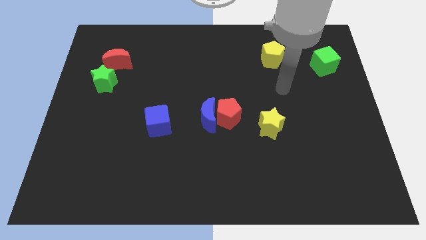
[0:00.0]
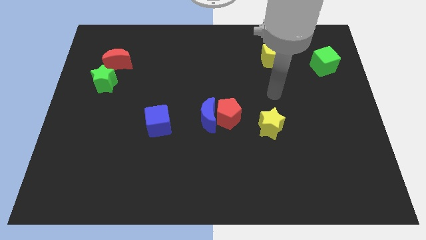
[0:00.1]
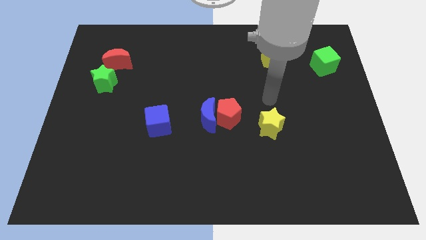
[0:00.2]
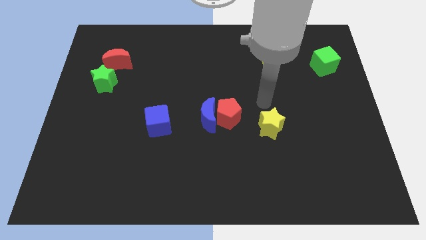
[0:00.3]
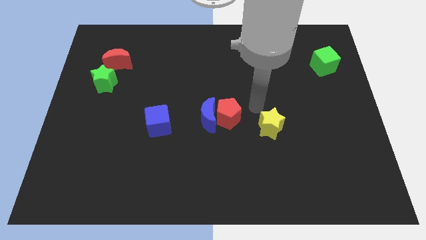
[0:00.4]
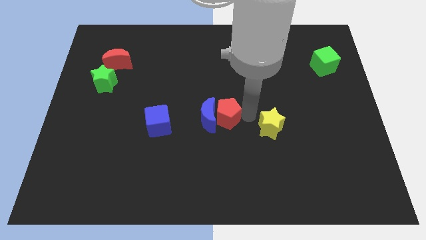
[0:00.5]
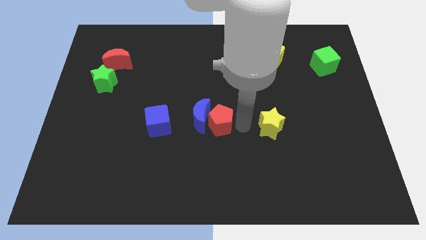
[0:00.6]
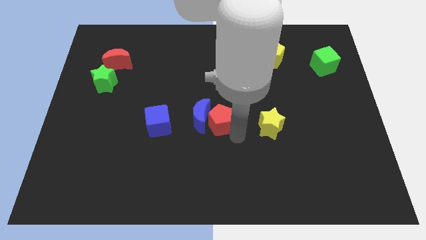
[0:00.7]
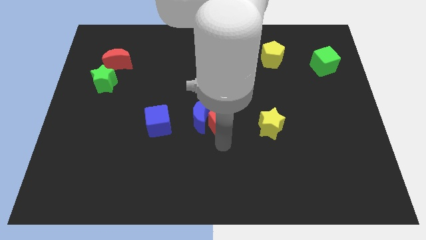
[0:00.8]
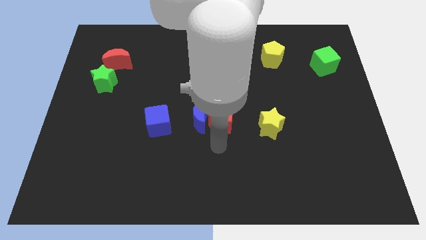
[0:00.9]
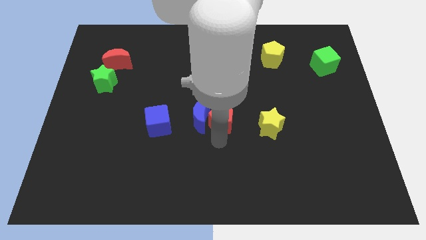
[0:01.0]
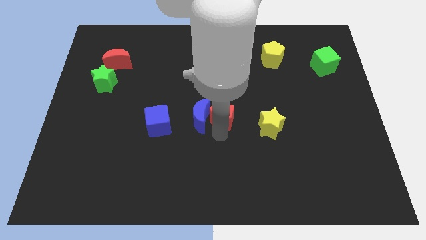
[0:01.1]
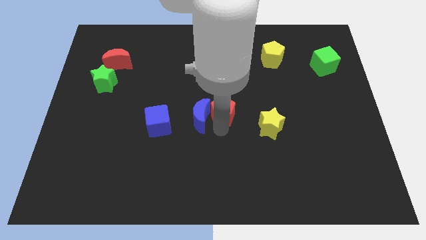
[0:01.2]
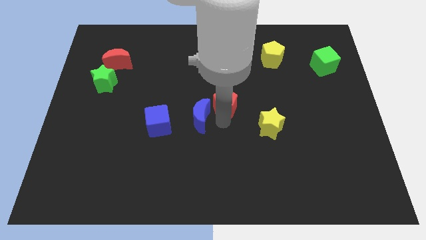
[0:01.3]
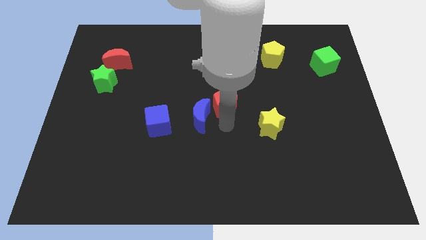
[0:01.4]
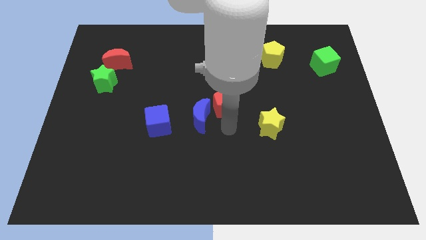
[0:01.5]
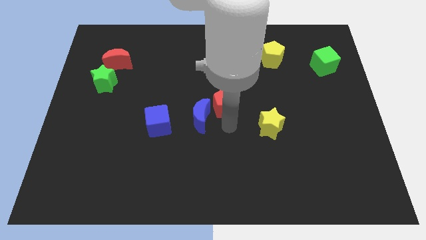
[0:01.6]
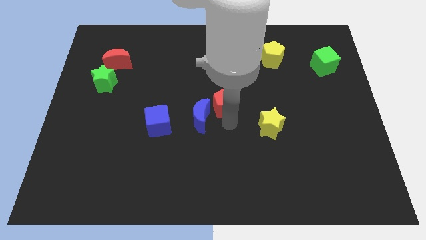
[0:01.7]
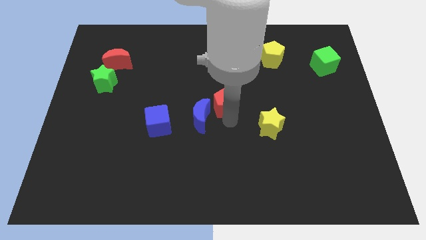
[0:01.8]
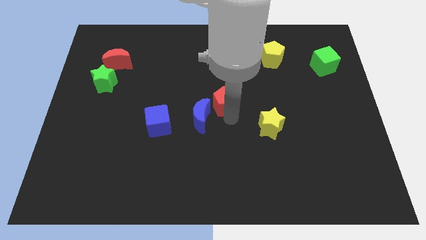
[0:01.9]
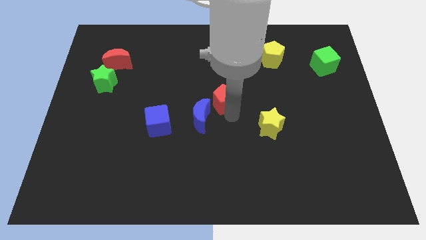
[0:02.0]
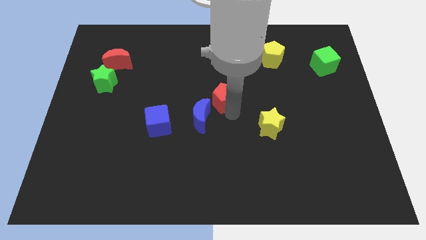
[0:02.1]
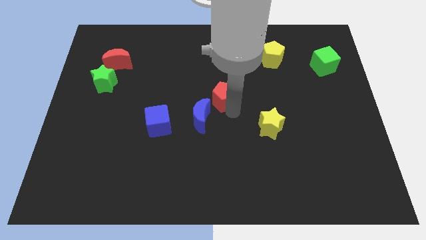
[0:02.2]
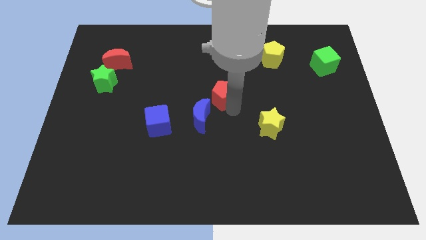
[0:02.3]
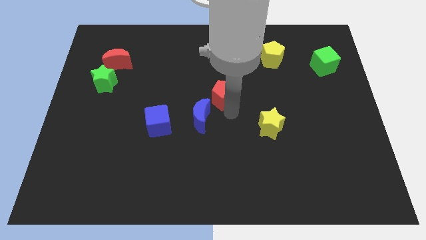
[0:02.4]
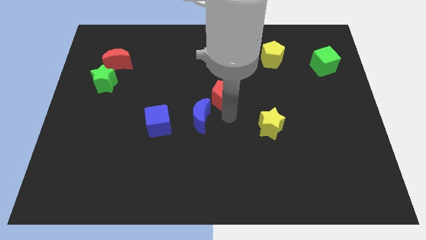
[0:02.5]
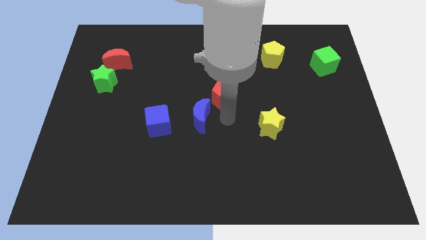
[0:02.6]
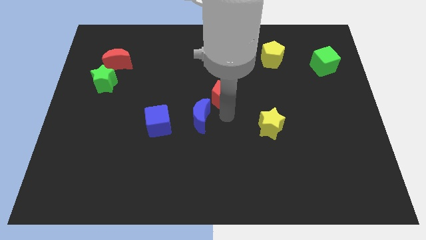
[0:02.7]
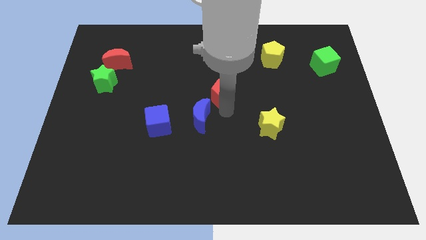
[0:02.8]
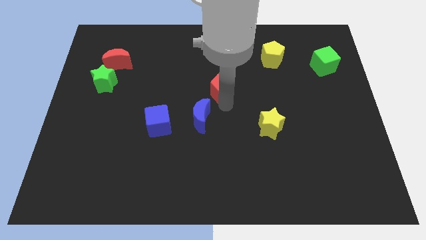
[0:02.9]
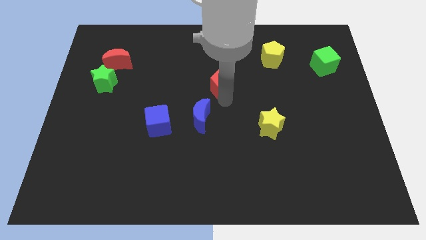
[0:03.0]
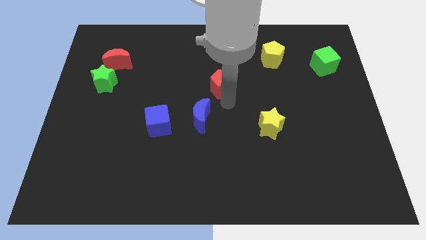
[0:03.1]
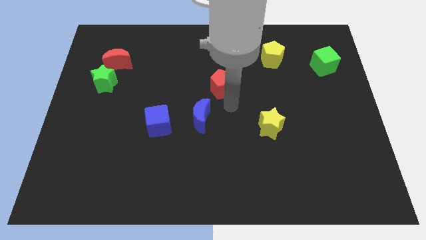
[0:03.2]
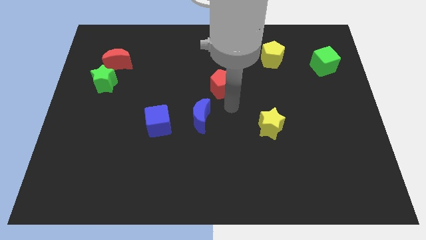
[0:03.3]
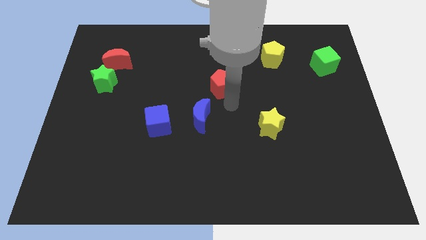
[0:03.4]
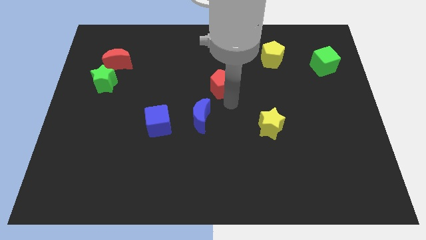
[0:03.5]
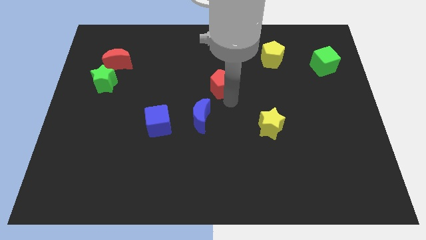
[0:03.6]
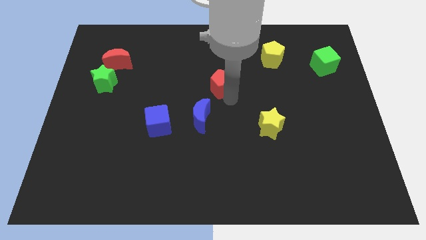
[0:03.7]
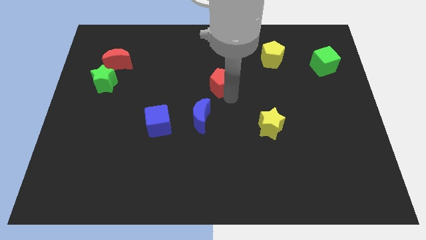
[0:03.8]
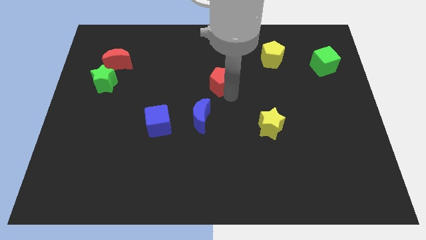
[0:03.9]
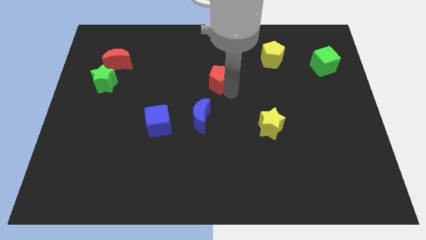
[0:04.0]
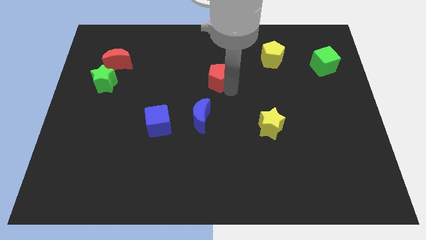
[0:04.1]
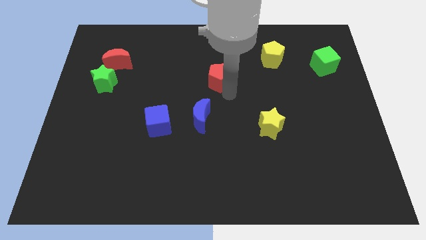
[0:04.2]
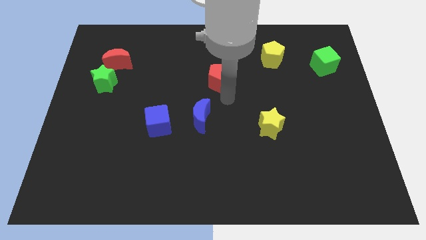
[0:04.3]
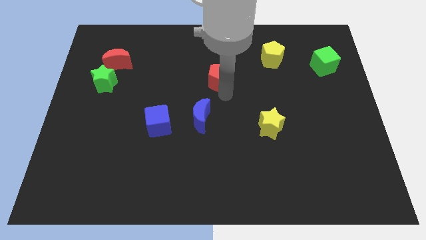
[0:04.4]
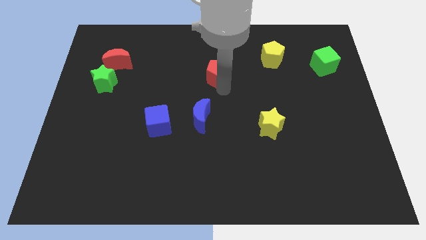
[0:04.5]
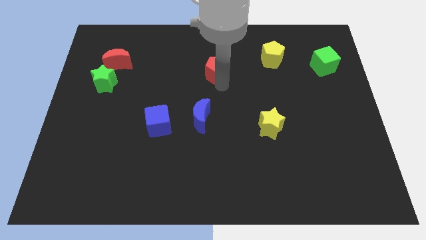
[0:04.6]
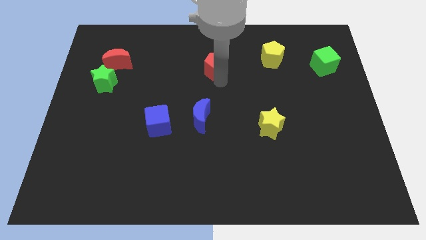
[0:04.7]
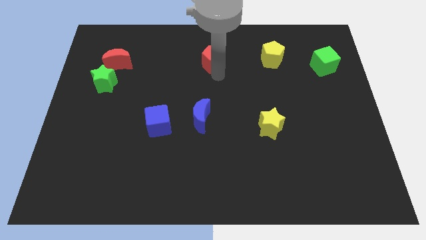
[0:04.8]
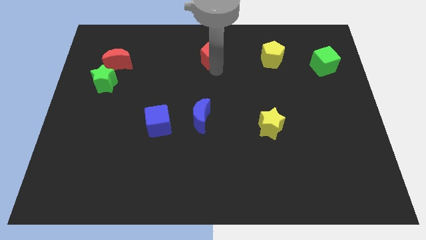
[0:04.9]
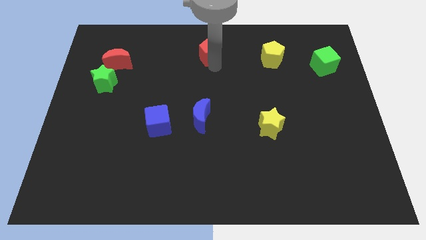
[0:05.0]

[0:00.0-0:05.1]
push the red pentagon to the towards your base

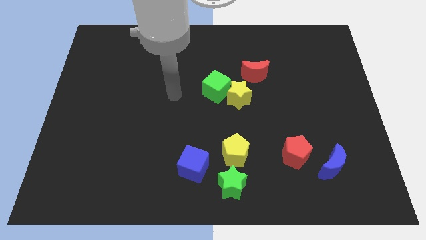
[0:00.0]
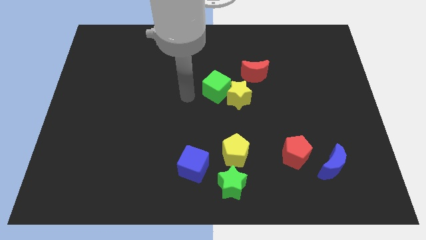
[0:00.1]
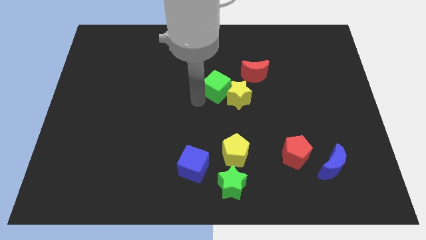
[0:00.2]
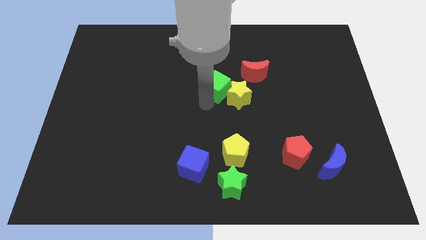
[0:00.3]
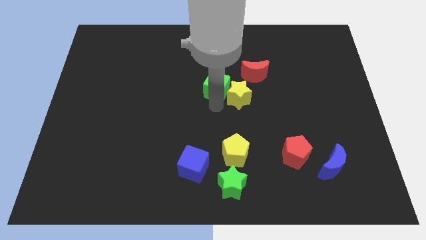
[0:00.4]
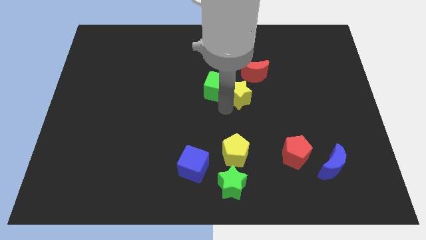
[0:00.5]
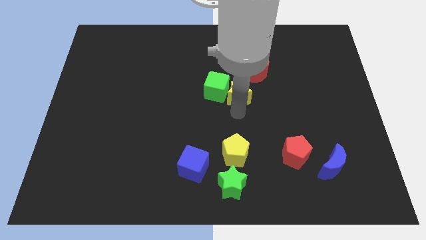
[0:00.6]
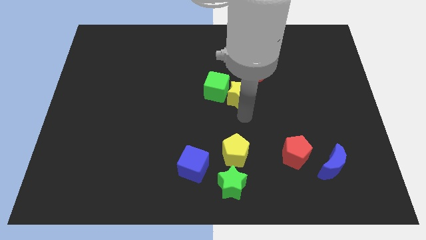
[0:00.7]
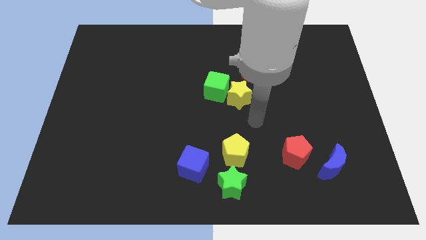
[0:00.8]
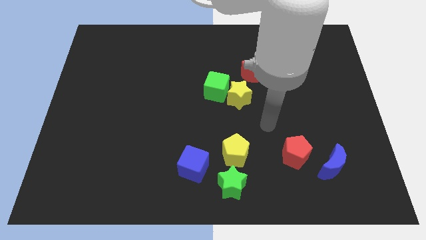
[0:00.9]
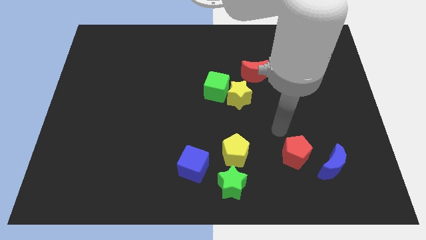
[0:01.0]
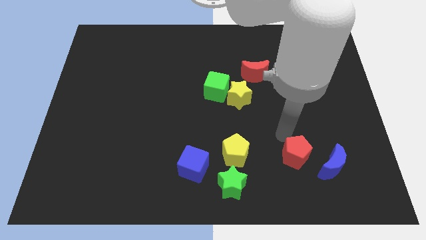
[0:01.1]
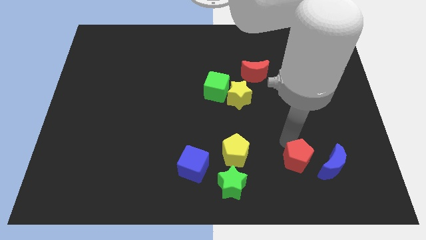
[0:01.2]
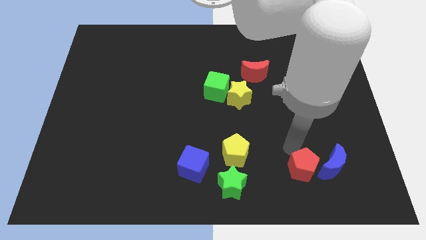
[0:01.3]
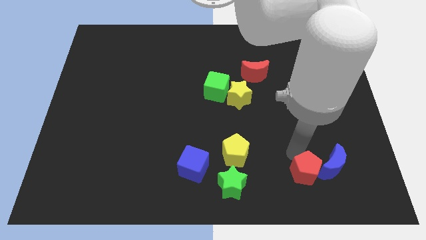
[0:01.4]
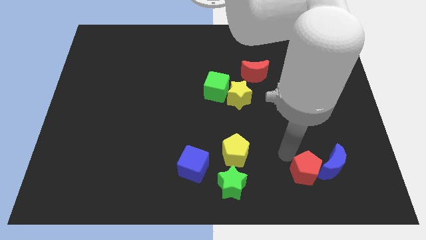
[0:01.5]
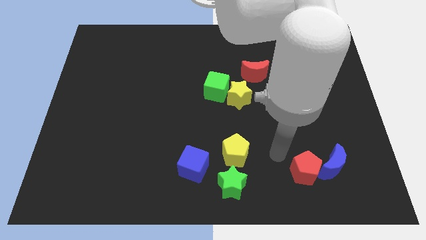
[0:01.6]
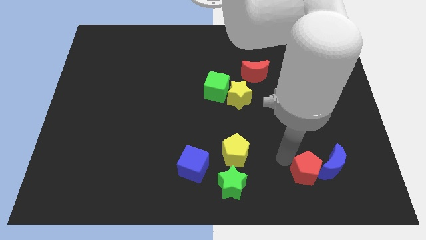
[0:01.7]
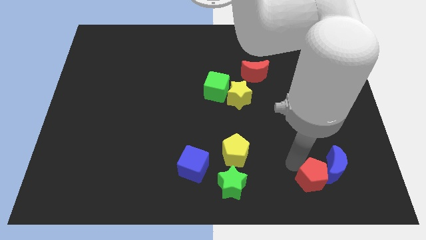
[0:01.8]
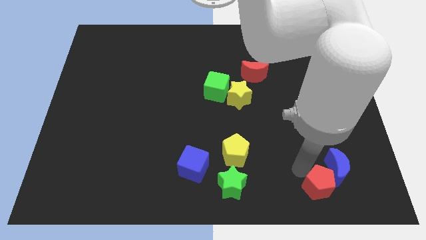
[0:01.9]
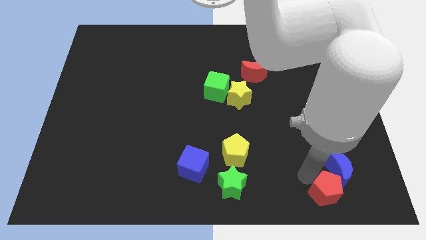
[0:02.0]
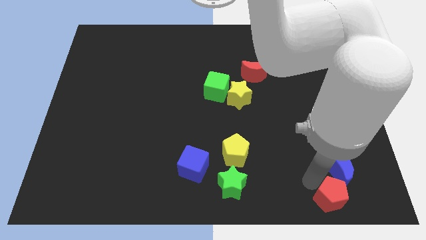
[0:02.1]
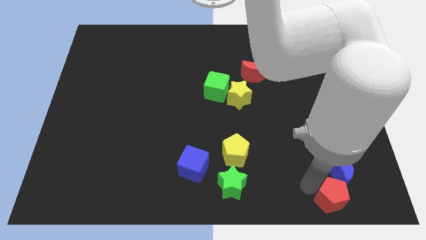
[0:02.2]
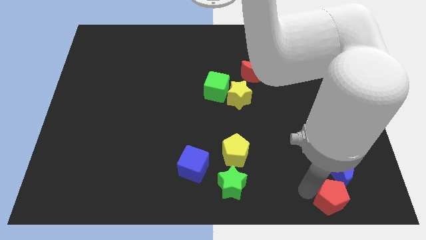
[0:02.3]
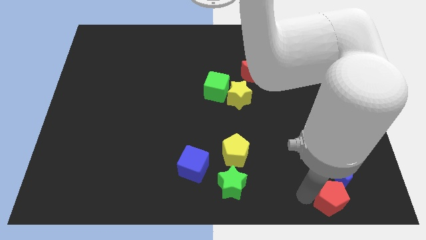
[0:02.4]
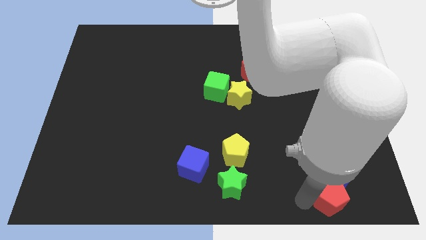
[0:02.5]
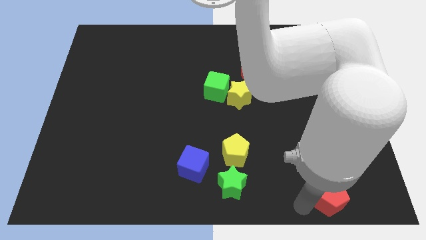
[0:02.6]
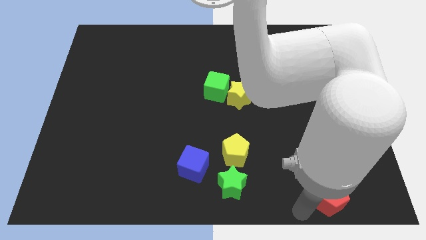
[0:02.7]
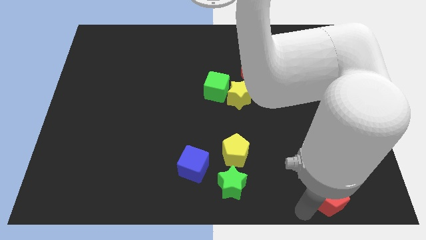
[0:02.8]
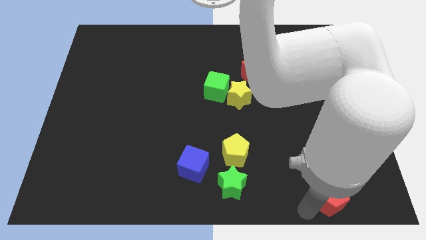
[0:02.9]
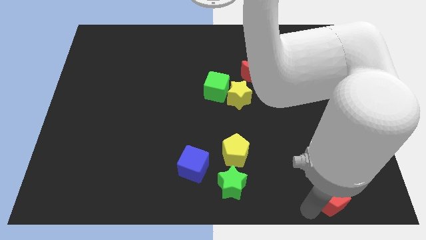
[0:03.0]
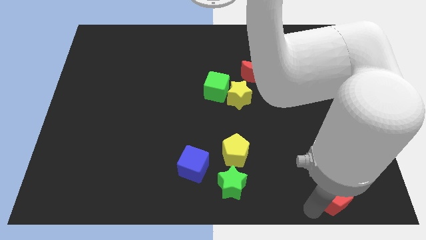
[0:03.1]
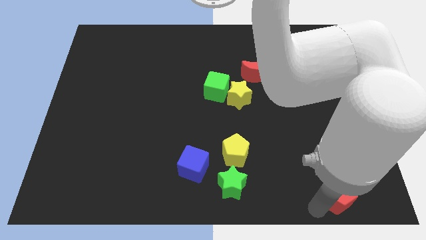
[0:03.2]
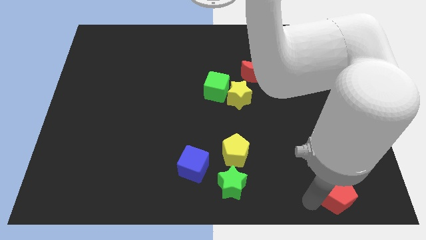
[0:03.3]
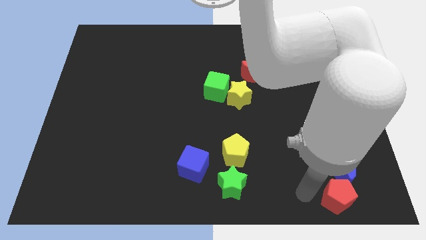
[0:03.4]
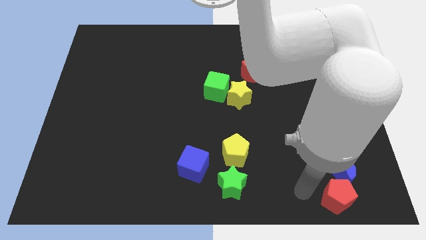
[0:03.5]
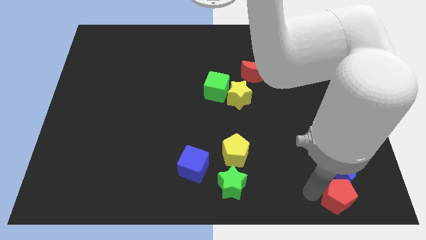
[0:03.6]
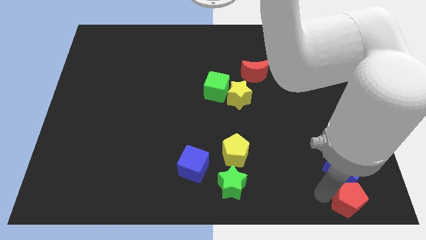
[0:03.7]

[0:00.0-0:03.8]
put the red pentagon to the bottom right of the board
